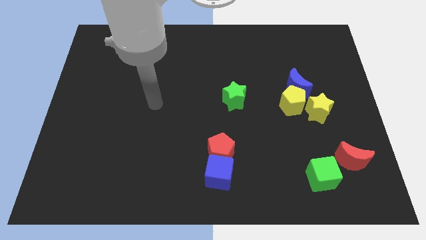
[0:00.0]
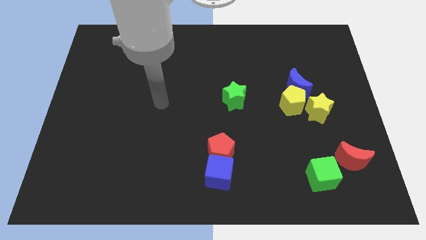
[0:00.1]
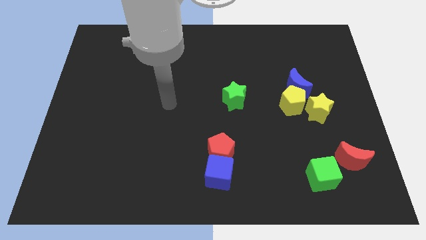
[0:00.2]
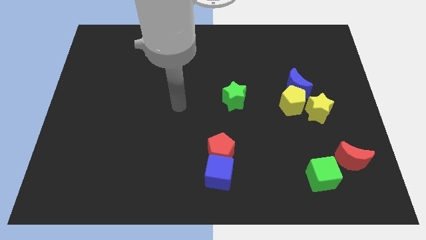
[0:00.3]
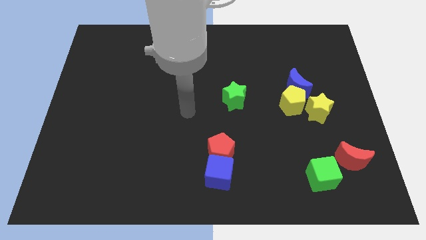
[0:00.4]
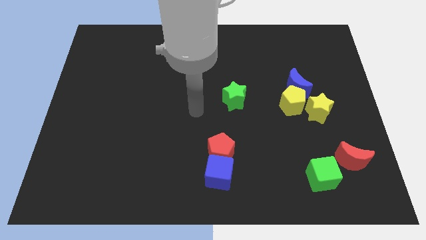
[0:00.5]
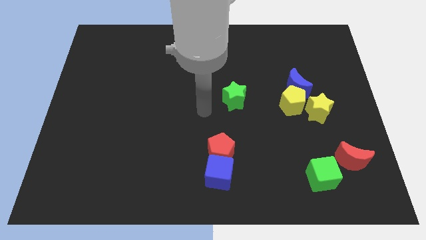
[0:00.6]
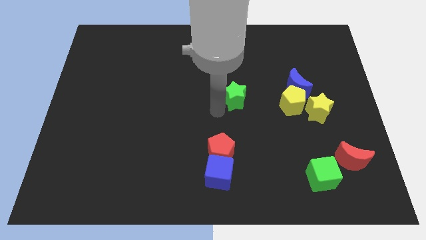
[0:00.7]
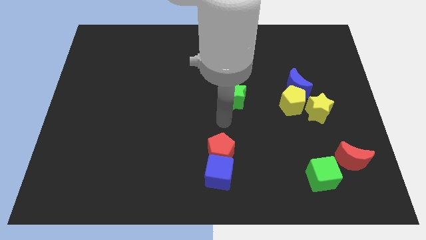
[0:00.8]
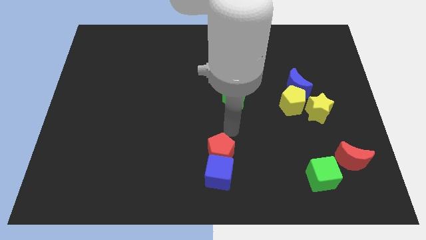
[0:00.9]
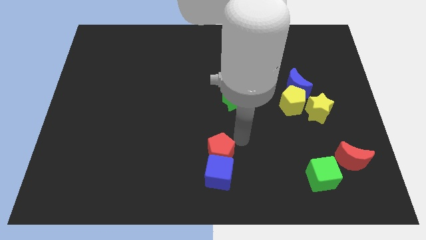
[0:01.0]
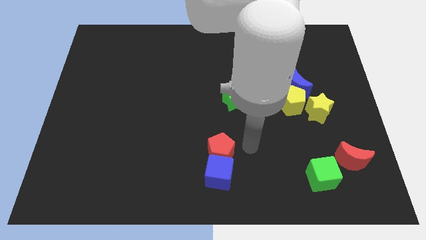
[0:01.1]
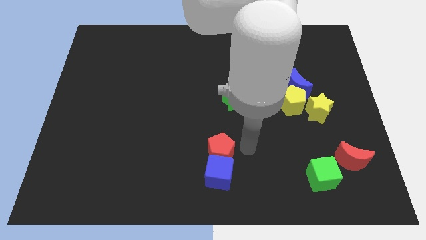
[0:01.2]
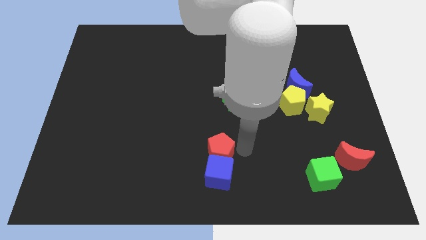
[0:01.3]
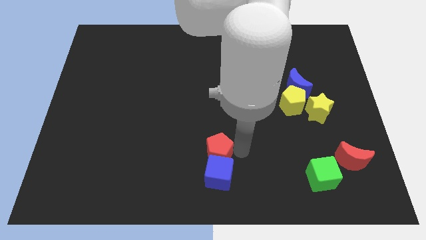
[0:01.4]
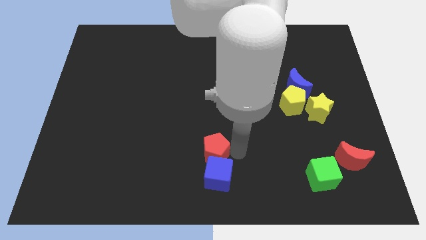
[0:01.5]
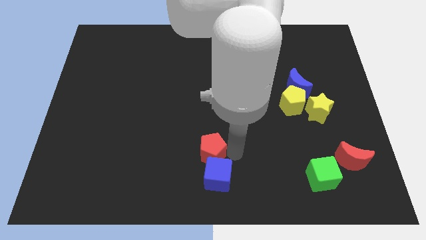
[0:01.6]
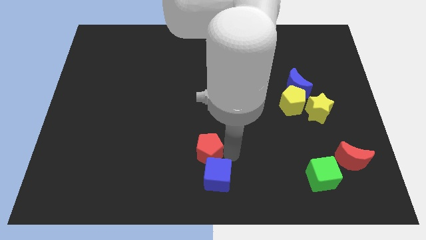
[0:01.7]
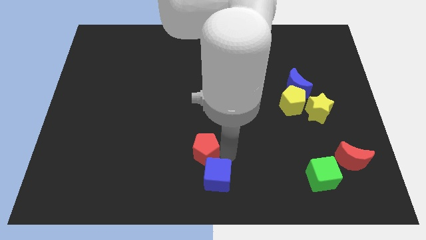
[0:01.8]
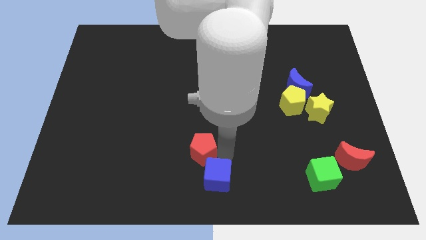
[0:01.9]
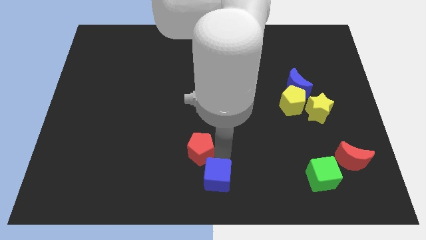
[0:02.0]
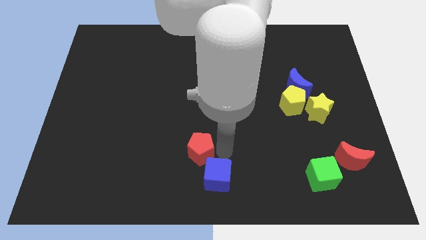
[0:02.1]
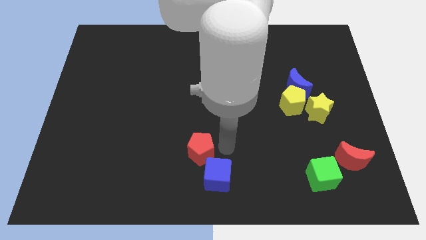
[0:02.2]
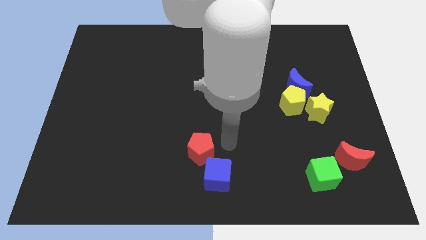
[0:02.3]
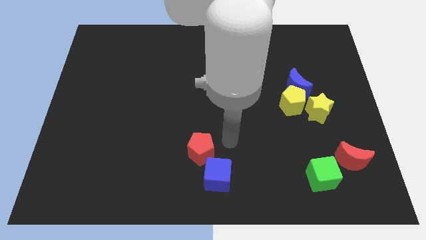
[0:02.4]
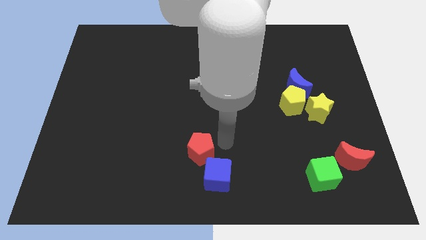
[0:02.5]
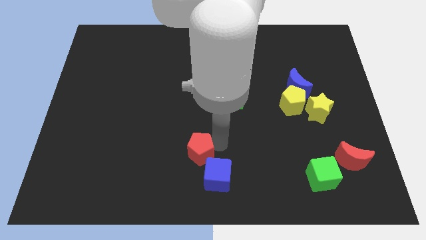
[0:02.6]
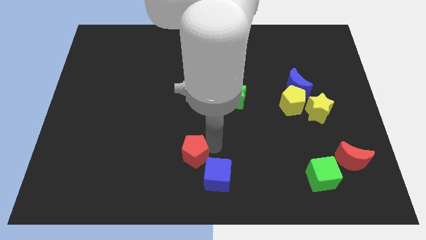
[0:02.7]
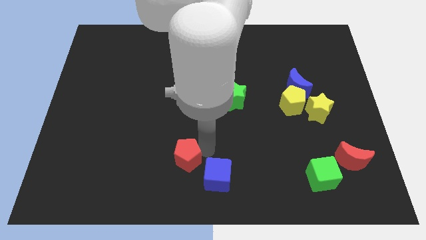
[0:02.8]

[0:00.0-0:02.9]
slightly slide the red pentagon to the left

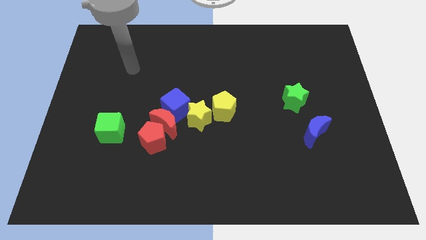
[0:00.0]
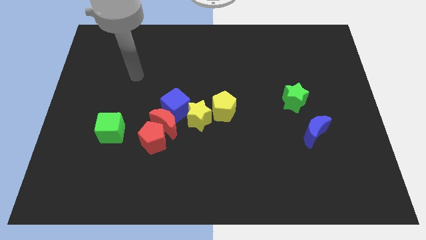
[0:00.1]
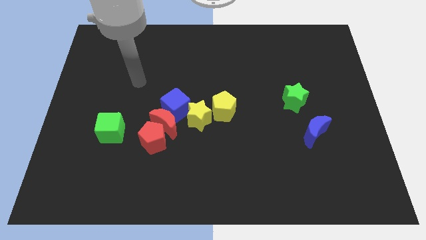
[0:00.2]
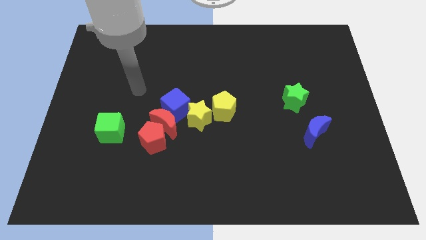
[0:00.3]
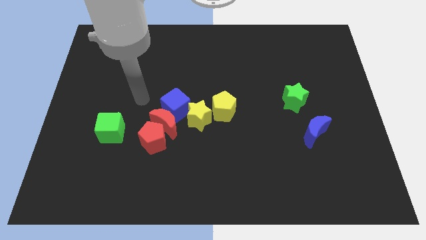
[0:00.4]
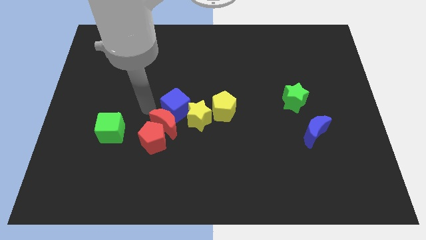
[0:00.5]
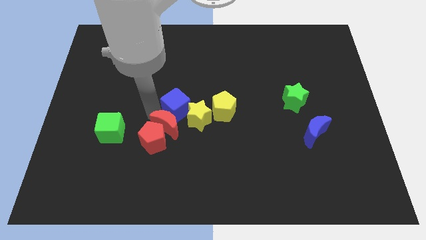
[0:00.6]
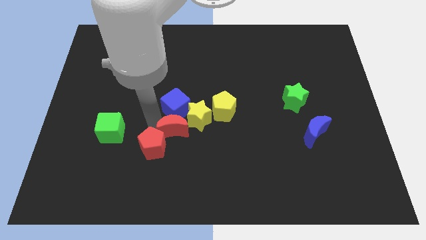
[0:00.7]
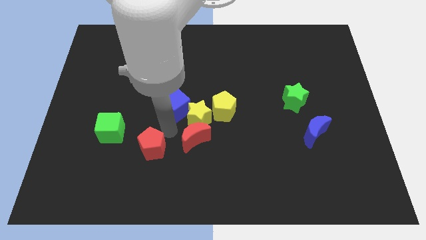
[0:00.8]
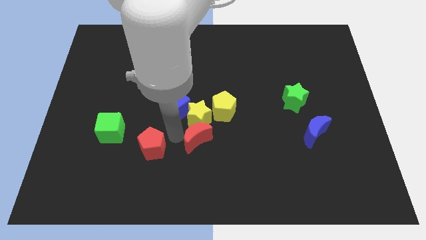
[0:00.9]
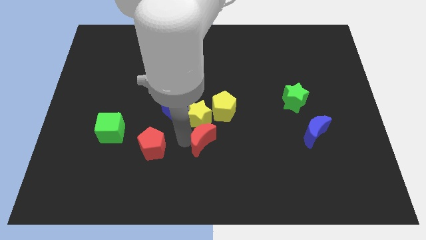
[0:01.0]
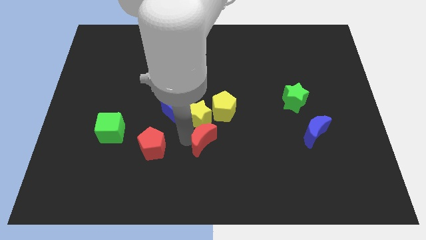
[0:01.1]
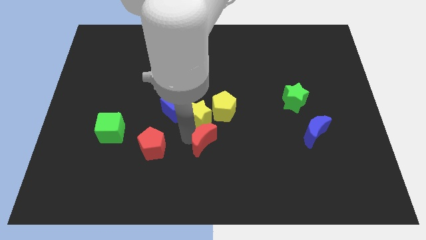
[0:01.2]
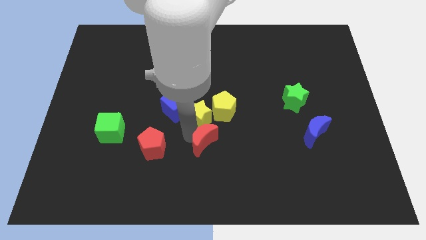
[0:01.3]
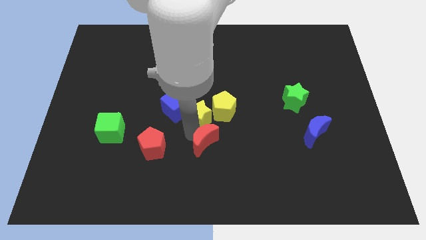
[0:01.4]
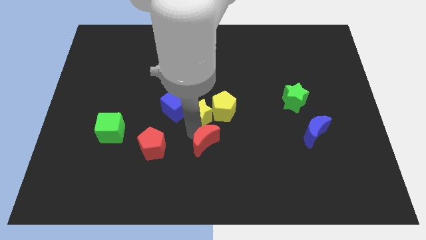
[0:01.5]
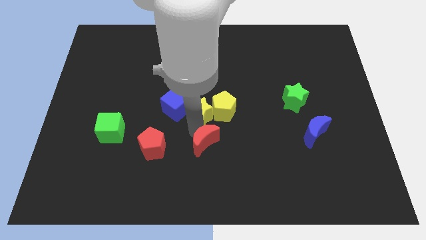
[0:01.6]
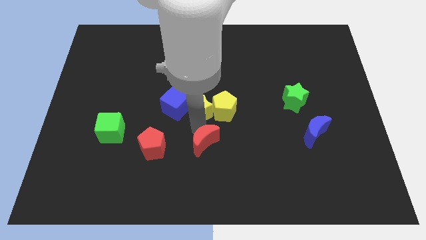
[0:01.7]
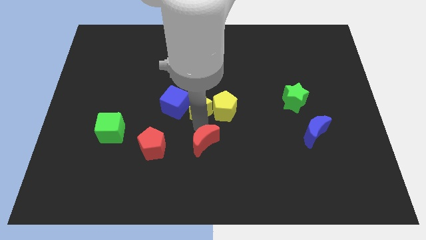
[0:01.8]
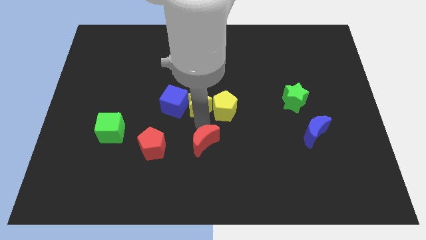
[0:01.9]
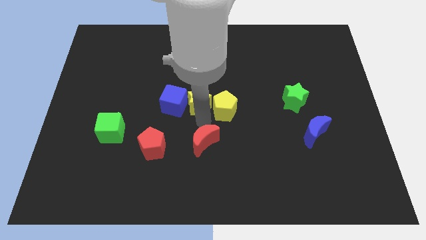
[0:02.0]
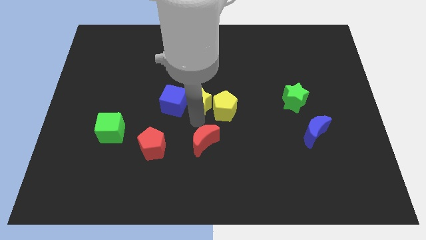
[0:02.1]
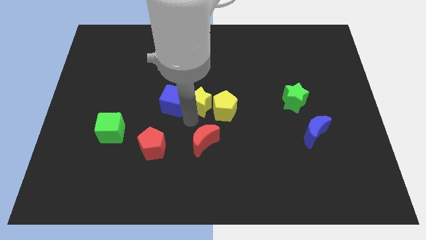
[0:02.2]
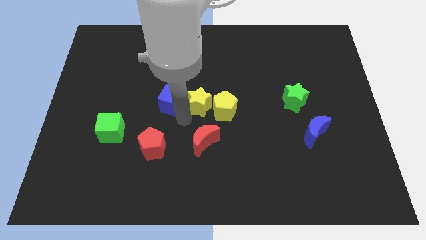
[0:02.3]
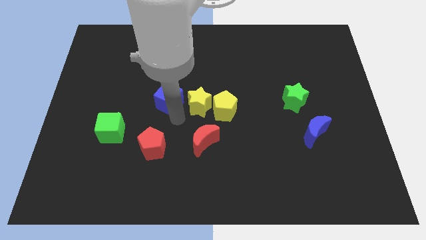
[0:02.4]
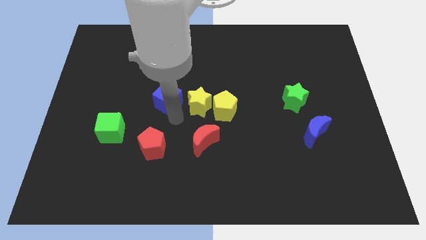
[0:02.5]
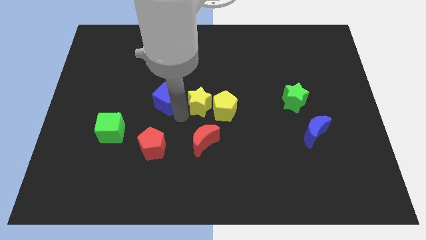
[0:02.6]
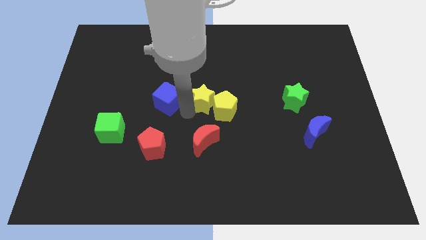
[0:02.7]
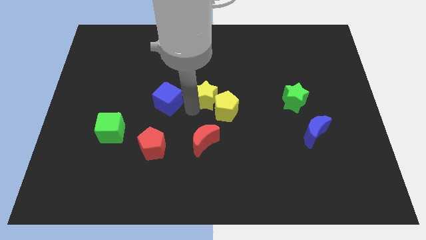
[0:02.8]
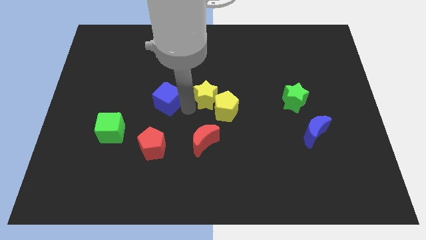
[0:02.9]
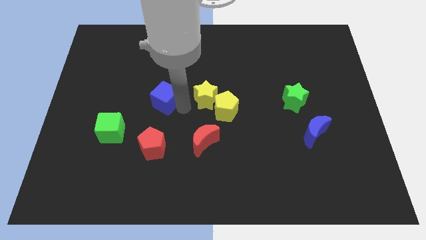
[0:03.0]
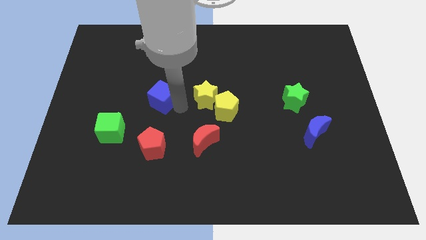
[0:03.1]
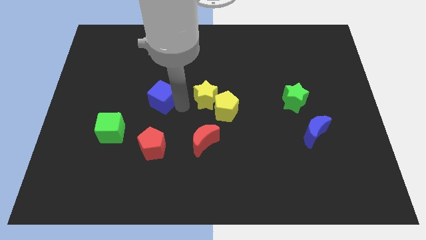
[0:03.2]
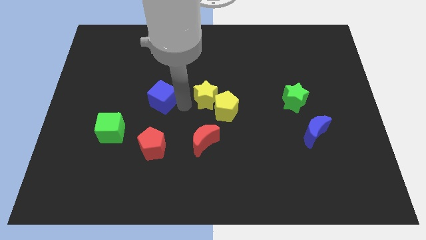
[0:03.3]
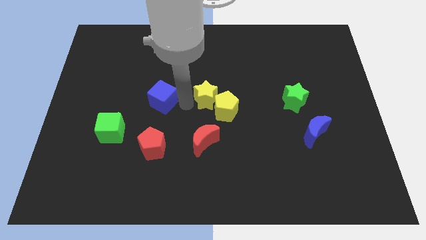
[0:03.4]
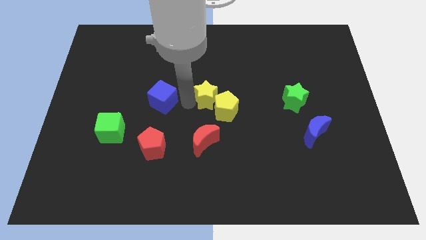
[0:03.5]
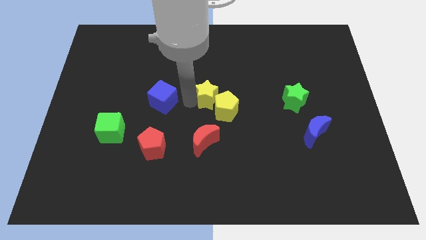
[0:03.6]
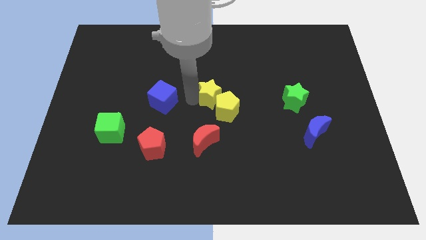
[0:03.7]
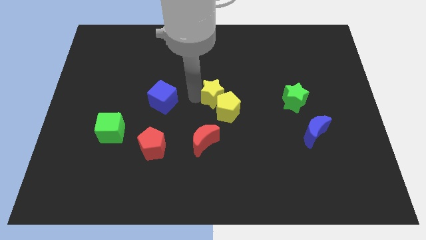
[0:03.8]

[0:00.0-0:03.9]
slide the yellow star a little bit up and then to the right

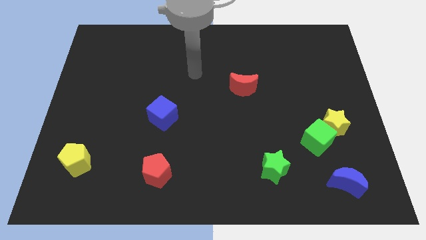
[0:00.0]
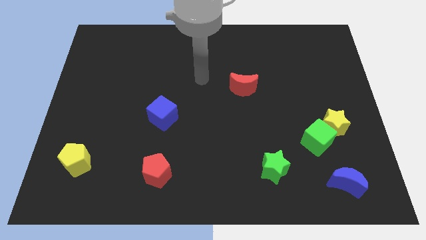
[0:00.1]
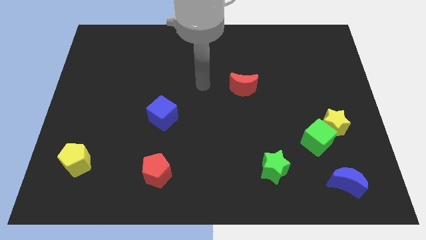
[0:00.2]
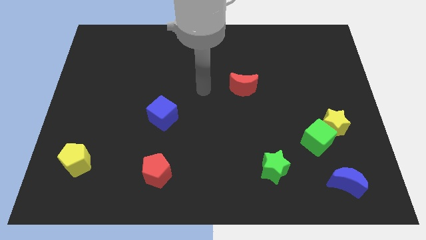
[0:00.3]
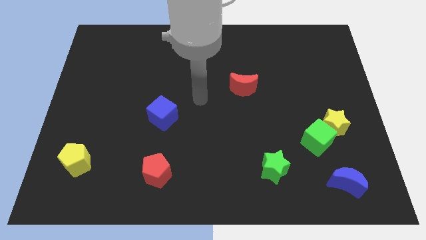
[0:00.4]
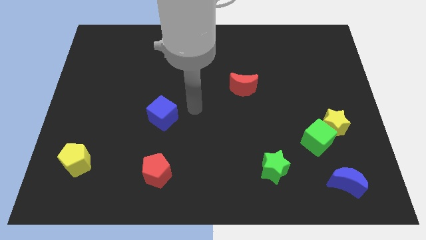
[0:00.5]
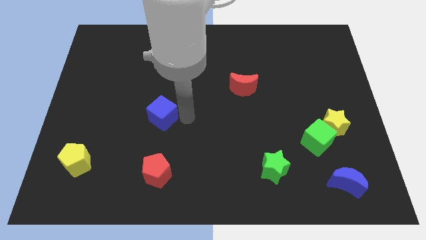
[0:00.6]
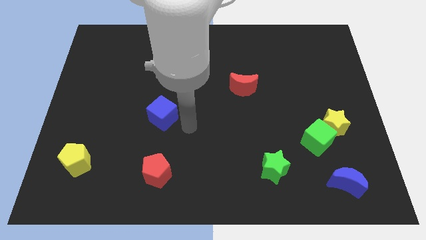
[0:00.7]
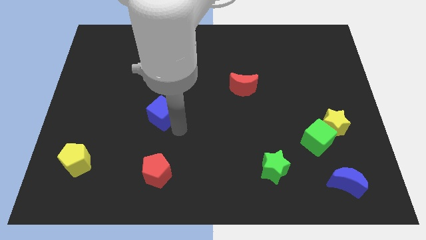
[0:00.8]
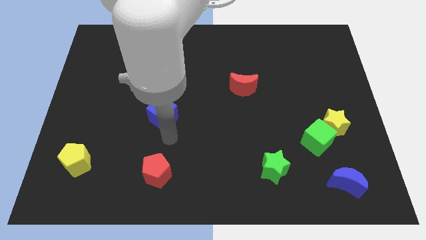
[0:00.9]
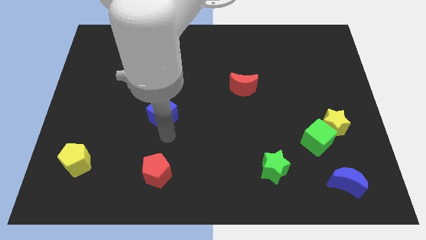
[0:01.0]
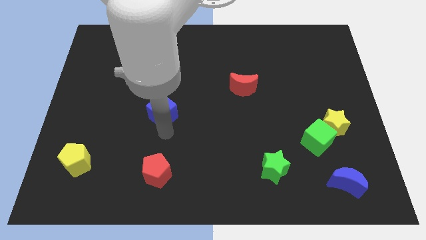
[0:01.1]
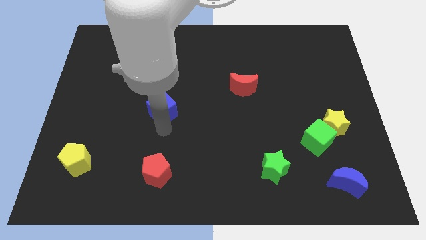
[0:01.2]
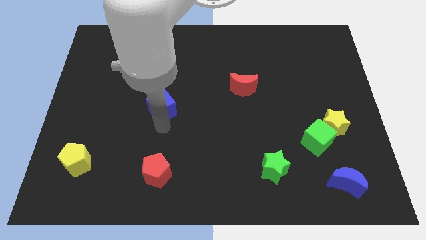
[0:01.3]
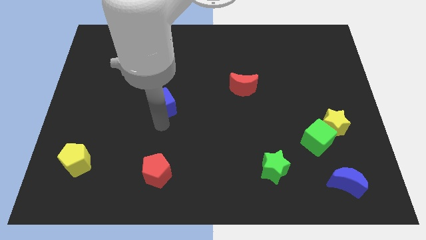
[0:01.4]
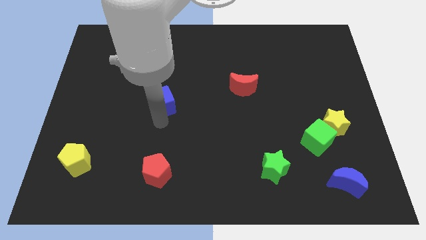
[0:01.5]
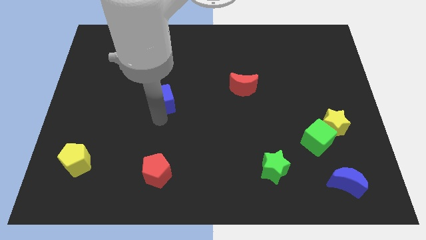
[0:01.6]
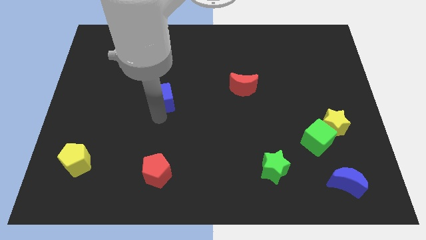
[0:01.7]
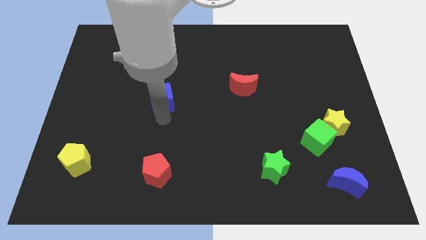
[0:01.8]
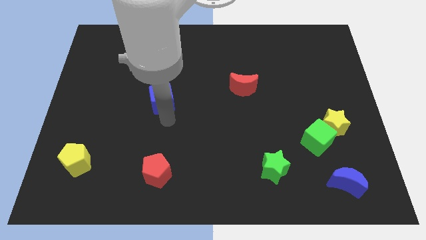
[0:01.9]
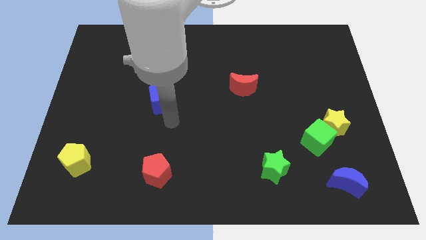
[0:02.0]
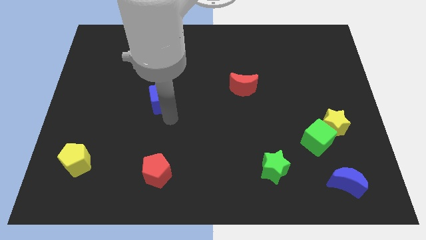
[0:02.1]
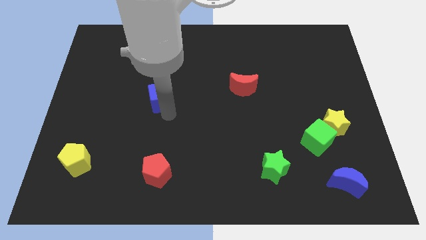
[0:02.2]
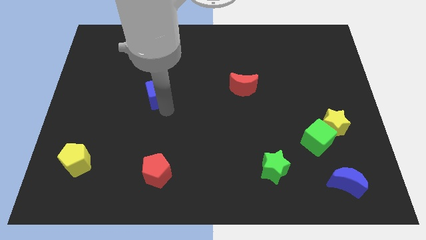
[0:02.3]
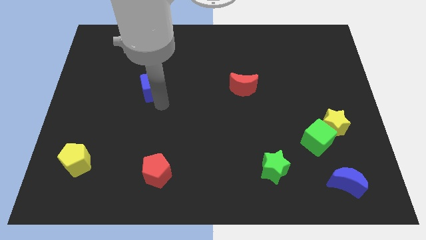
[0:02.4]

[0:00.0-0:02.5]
slightly slide the blue cube upwards
